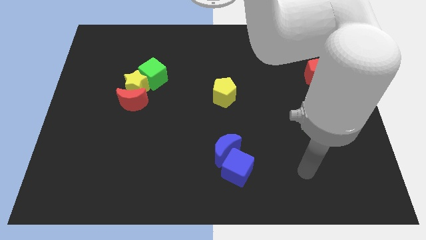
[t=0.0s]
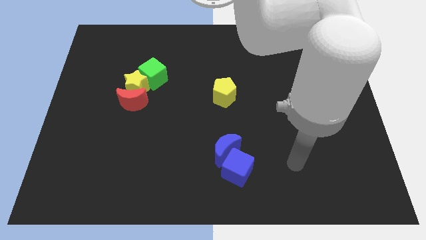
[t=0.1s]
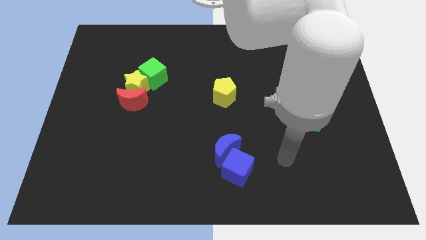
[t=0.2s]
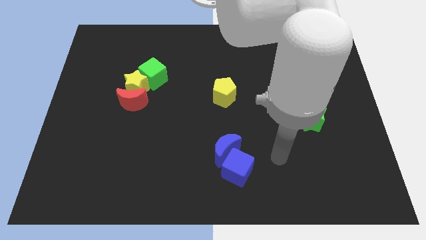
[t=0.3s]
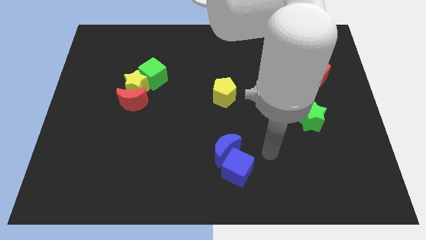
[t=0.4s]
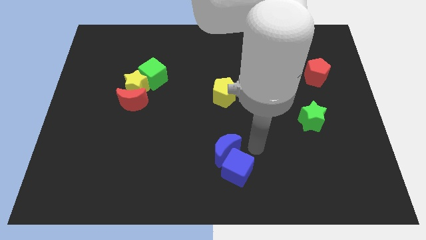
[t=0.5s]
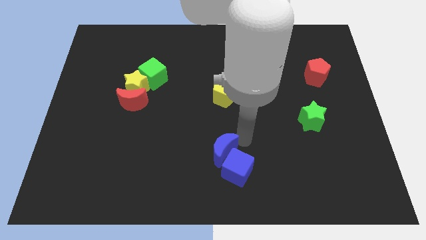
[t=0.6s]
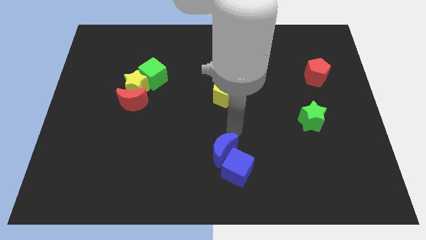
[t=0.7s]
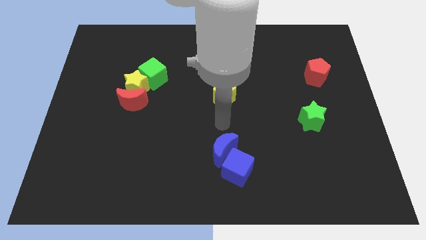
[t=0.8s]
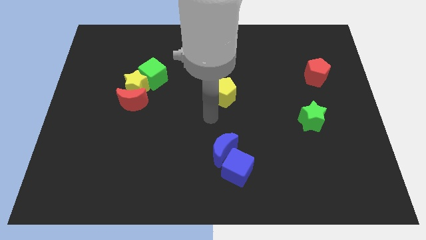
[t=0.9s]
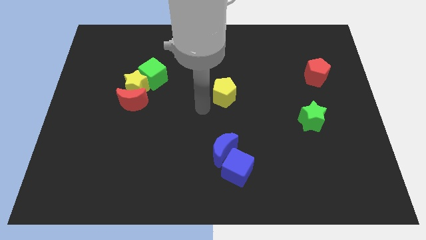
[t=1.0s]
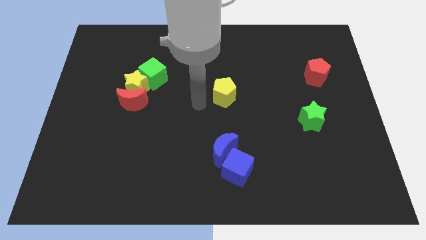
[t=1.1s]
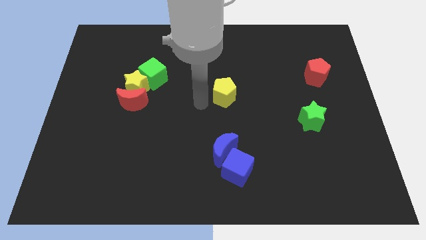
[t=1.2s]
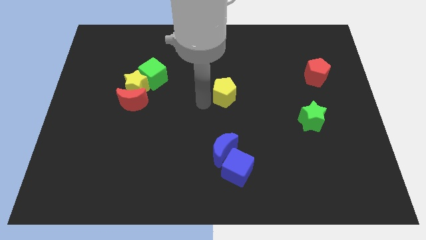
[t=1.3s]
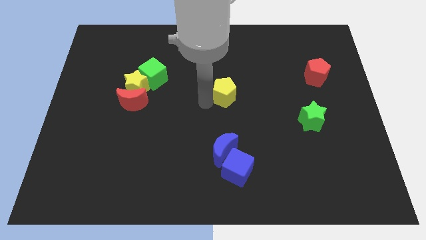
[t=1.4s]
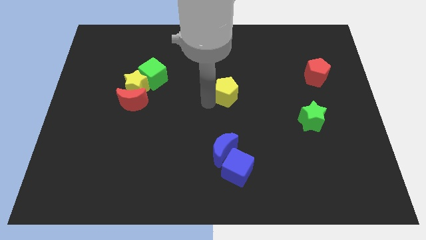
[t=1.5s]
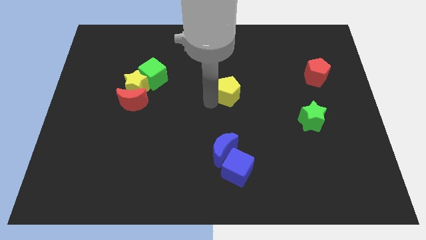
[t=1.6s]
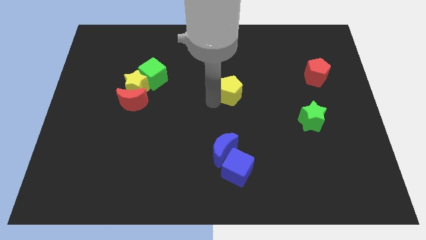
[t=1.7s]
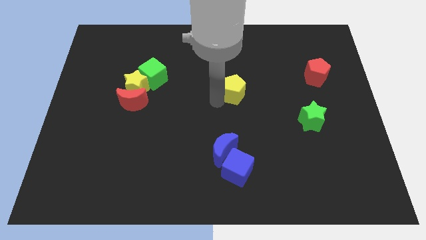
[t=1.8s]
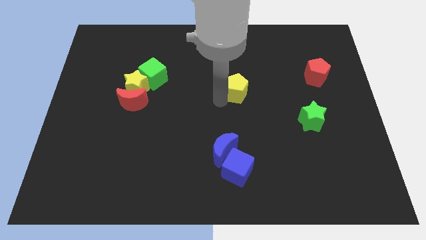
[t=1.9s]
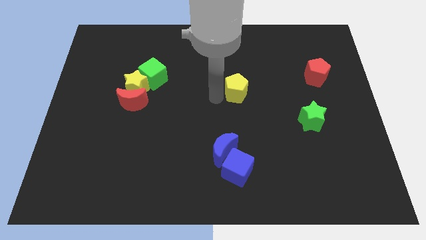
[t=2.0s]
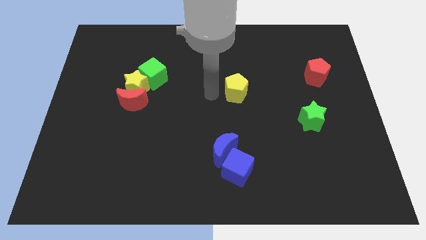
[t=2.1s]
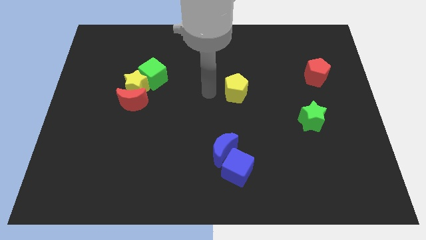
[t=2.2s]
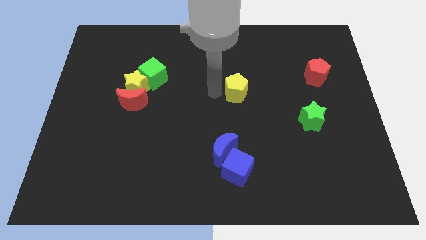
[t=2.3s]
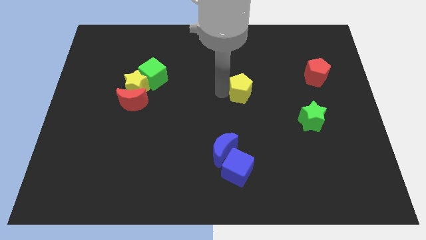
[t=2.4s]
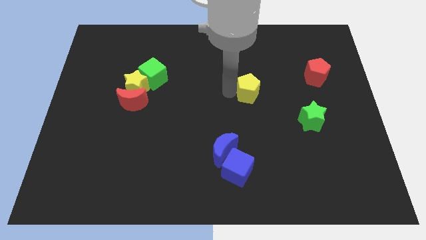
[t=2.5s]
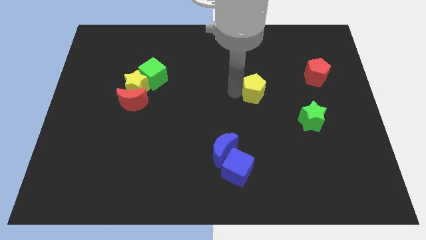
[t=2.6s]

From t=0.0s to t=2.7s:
move the yellow pentagon to the right somewhat

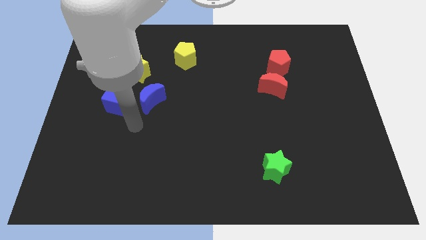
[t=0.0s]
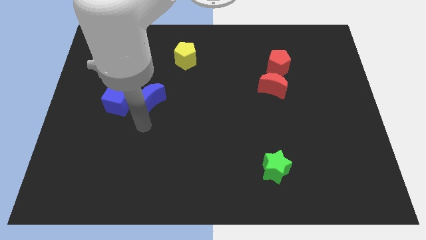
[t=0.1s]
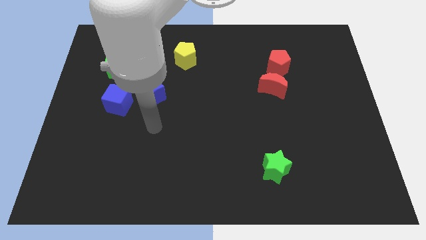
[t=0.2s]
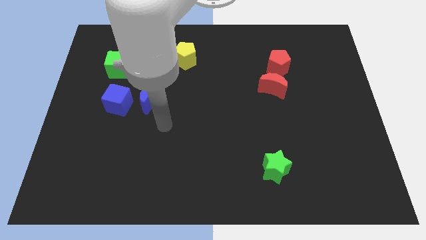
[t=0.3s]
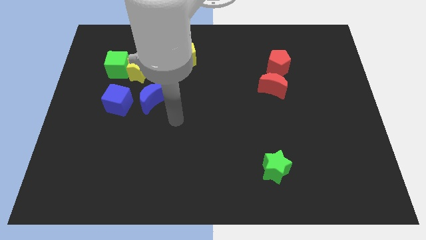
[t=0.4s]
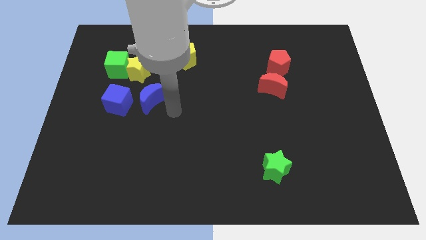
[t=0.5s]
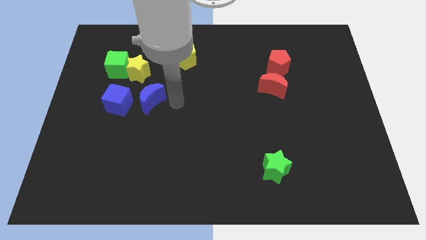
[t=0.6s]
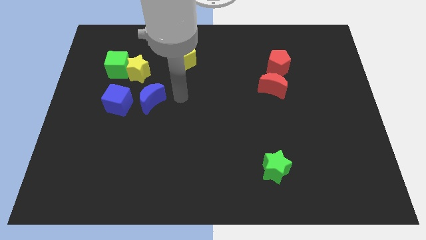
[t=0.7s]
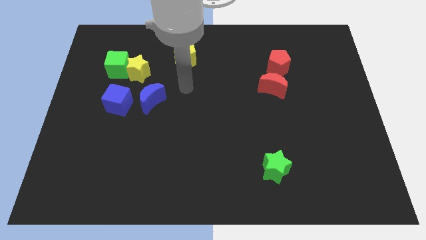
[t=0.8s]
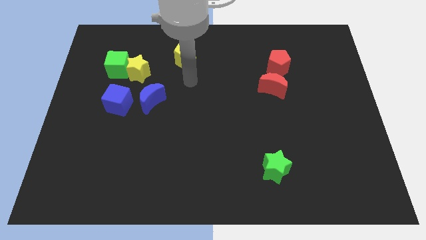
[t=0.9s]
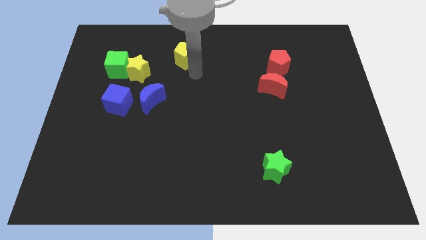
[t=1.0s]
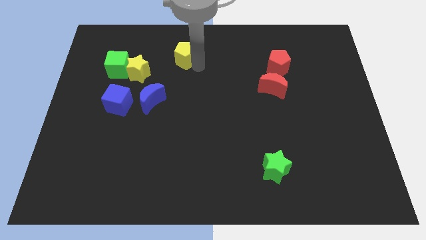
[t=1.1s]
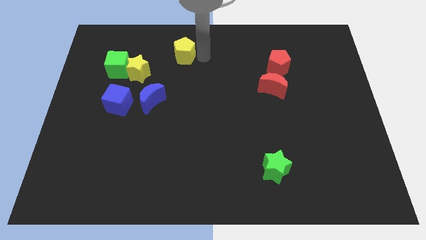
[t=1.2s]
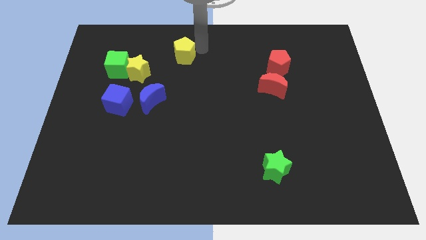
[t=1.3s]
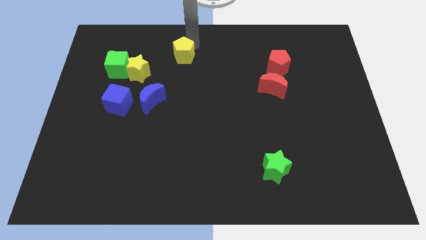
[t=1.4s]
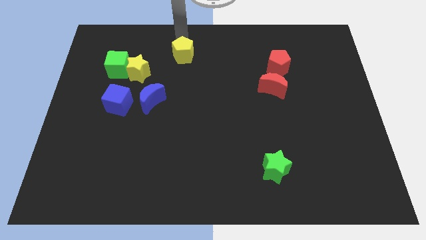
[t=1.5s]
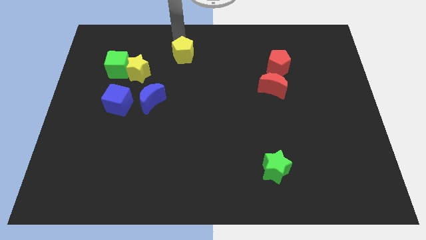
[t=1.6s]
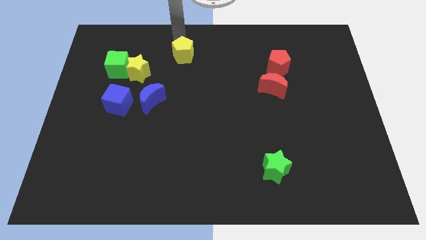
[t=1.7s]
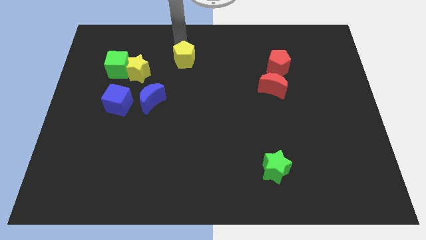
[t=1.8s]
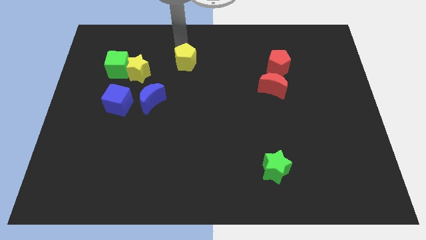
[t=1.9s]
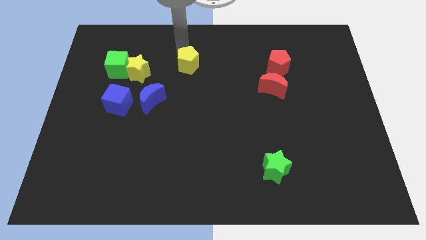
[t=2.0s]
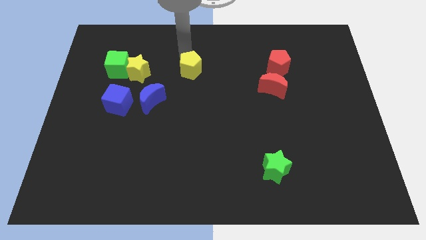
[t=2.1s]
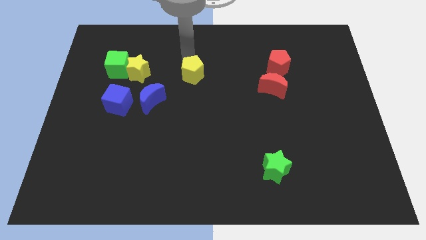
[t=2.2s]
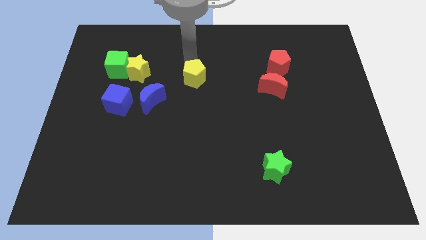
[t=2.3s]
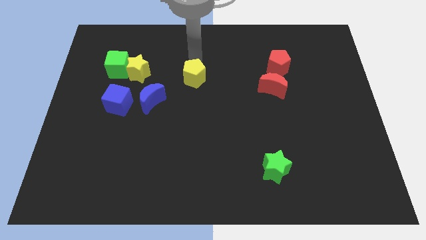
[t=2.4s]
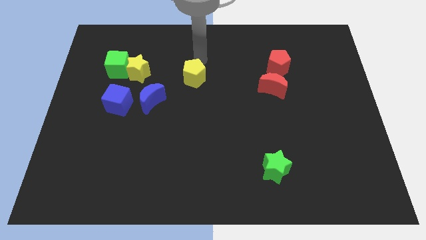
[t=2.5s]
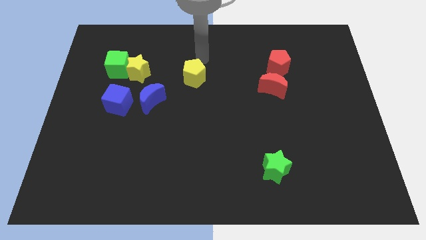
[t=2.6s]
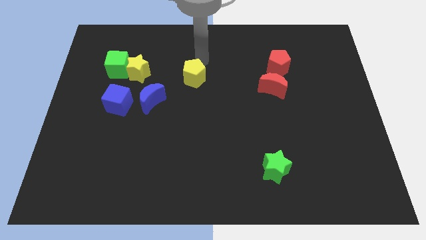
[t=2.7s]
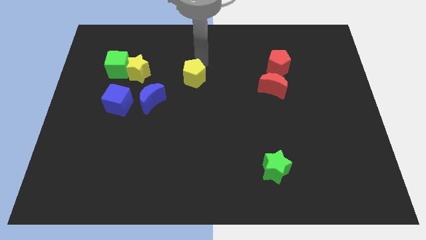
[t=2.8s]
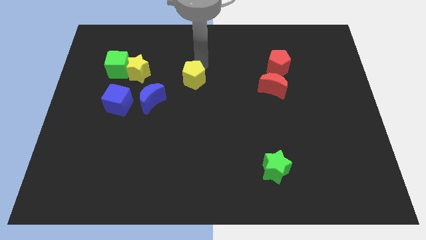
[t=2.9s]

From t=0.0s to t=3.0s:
push the yellow pentagon somewhat down

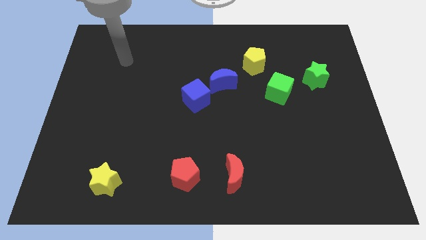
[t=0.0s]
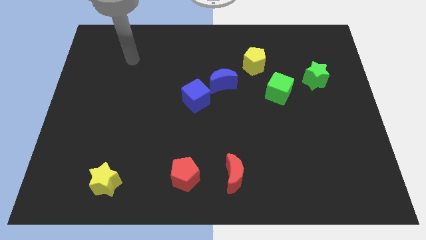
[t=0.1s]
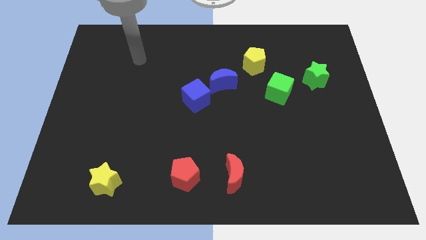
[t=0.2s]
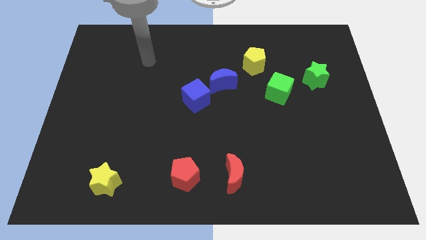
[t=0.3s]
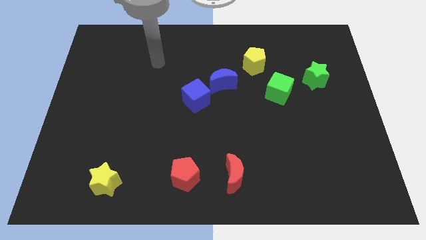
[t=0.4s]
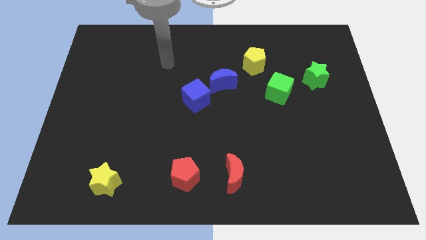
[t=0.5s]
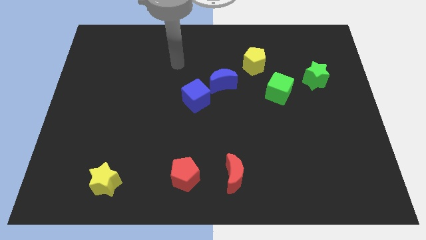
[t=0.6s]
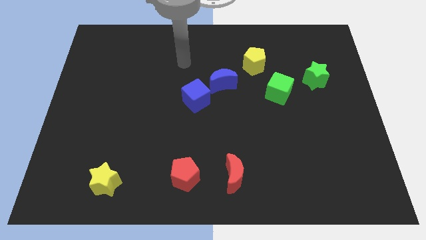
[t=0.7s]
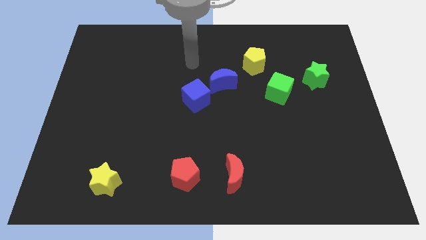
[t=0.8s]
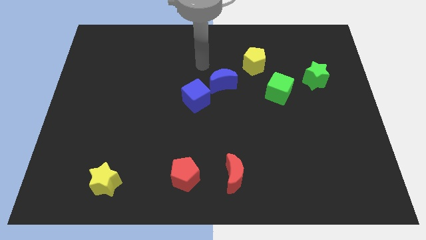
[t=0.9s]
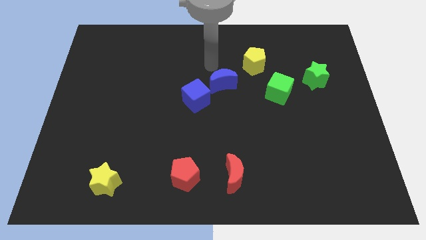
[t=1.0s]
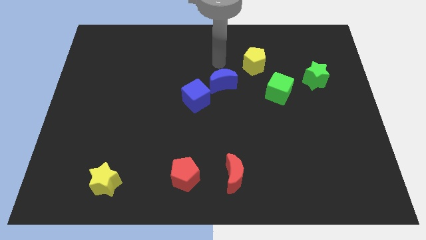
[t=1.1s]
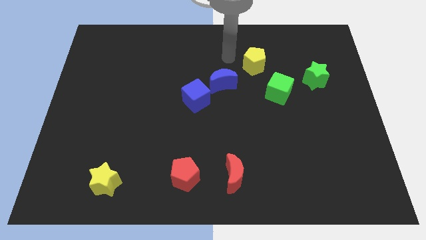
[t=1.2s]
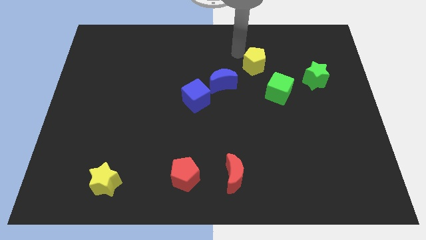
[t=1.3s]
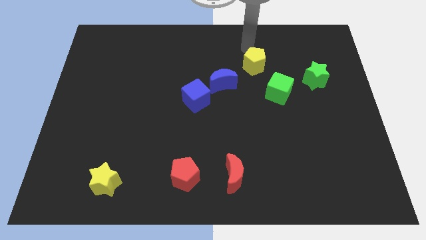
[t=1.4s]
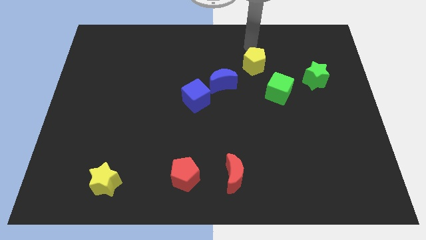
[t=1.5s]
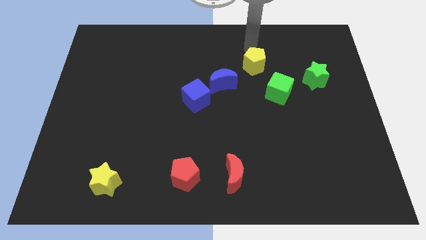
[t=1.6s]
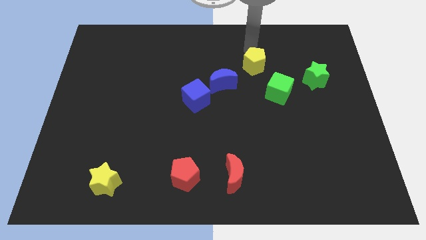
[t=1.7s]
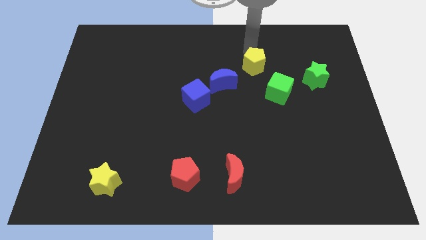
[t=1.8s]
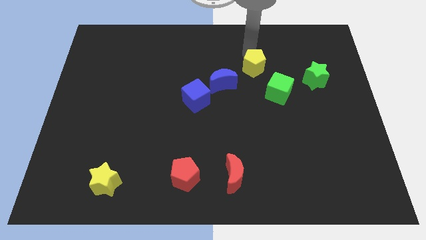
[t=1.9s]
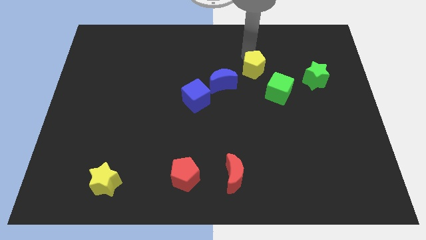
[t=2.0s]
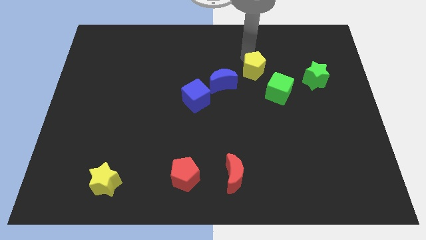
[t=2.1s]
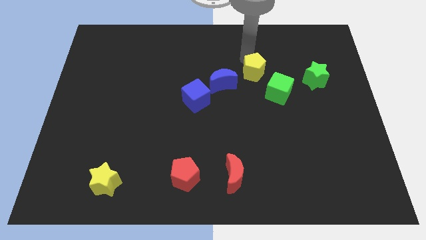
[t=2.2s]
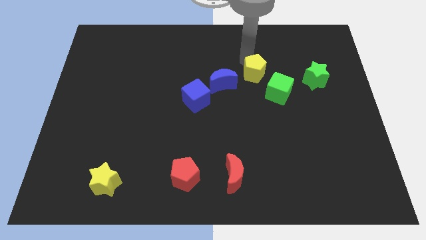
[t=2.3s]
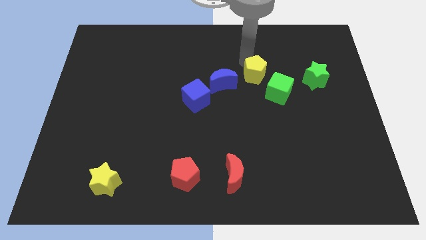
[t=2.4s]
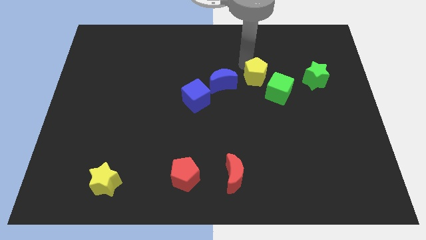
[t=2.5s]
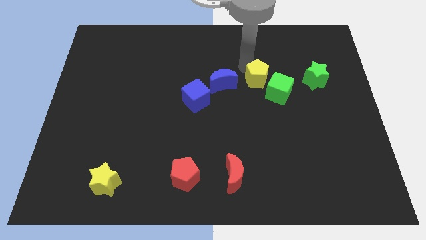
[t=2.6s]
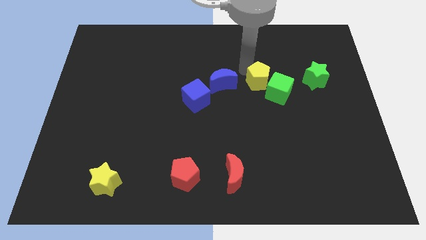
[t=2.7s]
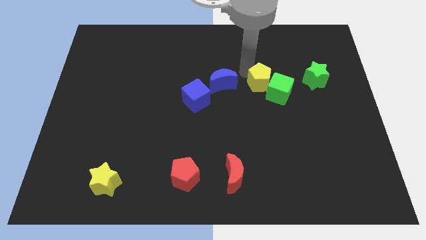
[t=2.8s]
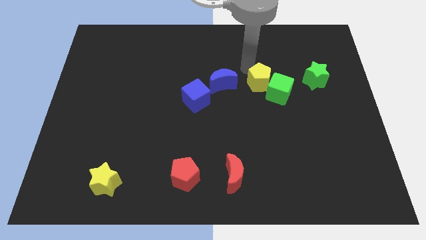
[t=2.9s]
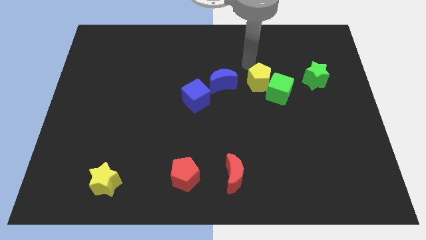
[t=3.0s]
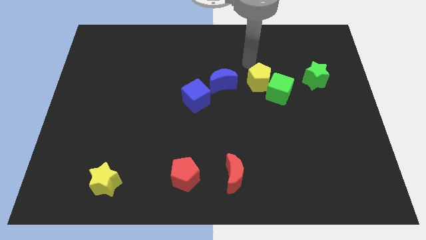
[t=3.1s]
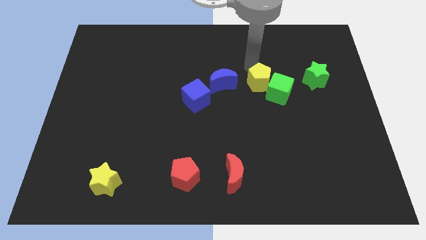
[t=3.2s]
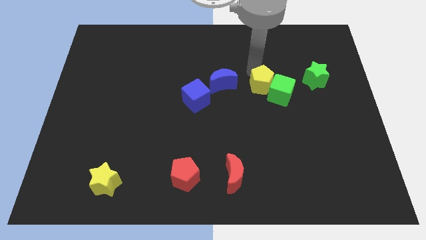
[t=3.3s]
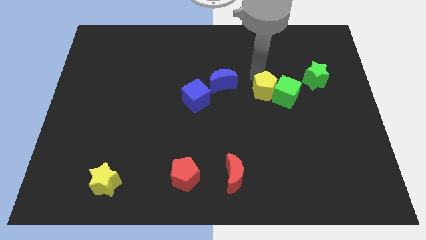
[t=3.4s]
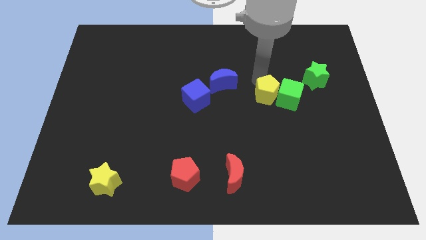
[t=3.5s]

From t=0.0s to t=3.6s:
push the yellow pentagon a bit downwards and right diagonally
